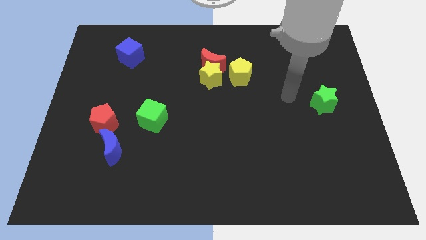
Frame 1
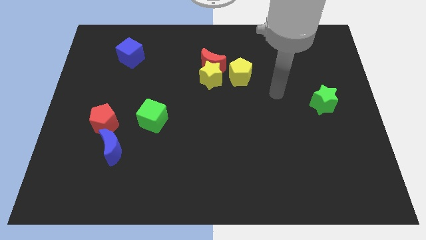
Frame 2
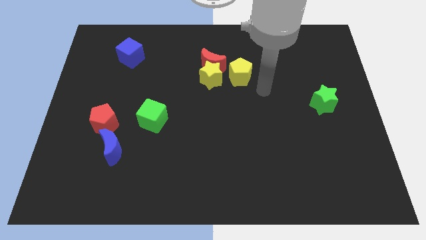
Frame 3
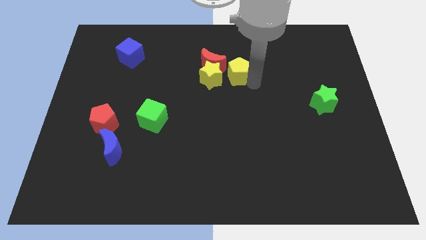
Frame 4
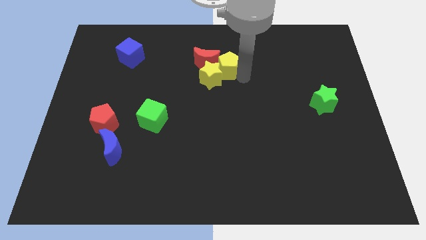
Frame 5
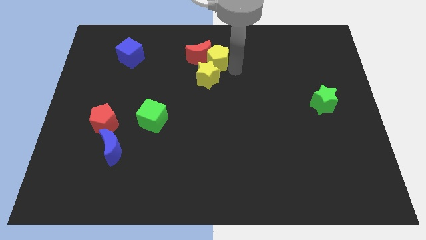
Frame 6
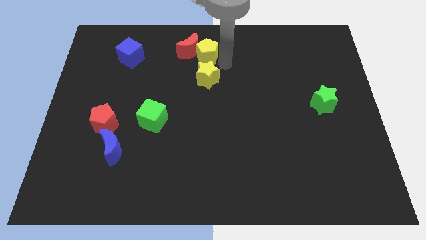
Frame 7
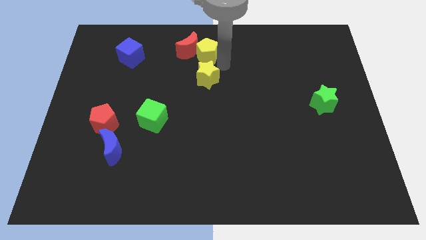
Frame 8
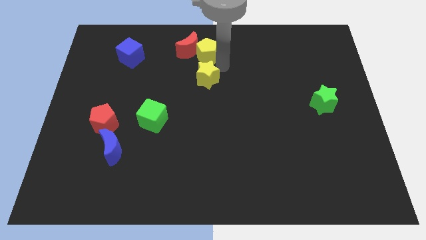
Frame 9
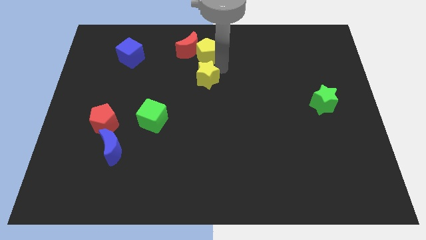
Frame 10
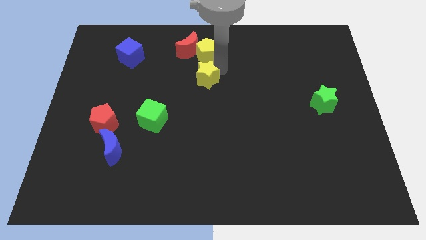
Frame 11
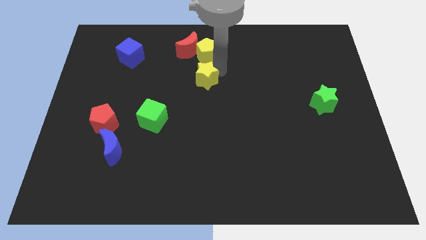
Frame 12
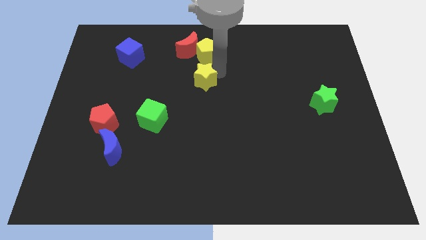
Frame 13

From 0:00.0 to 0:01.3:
separate the yellow star from the red moon and yellow pentagon

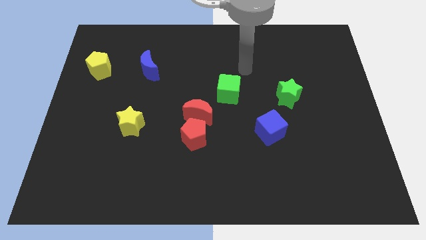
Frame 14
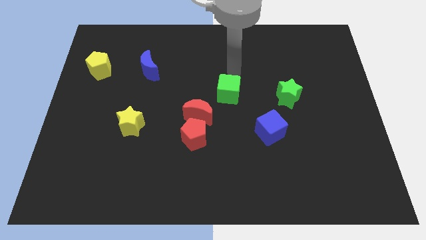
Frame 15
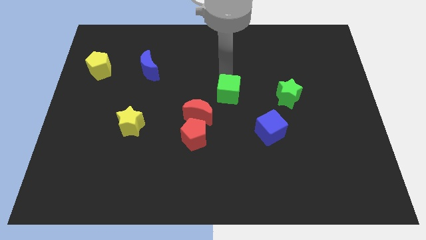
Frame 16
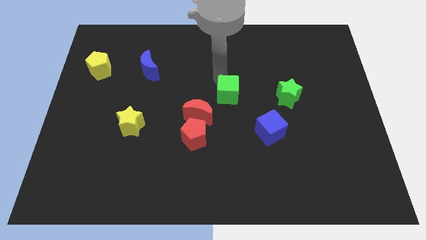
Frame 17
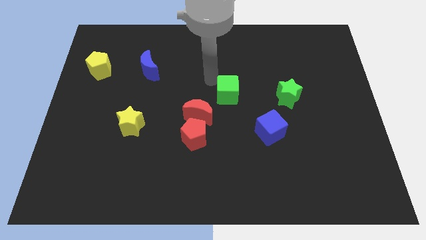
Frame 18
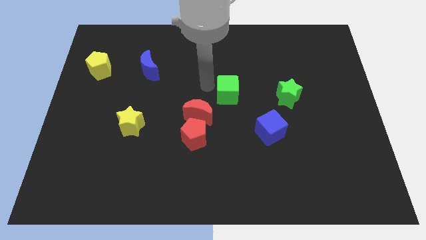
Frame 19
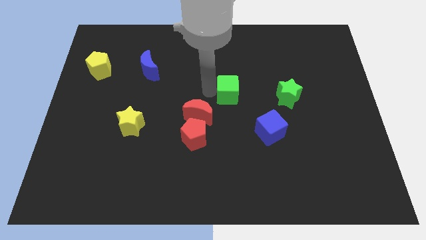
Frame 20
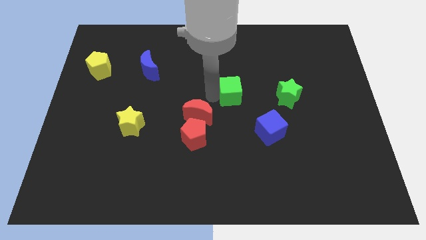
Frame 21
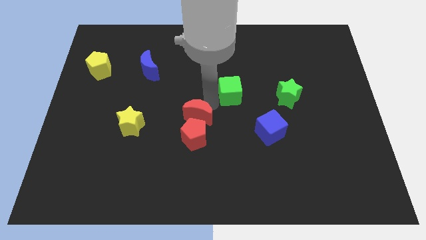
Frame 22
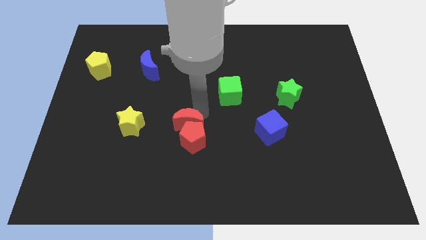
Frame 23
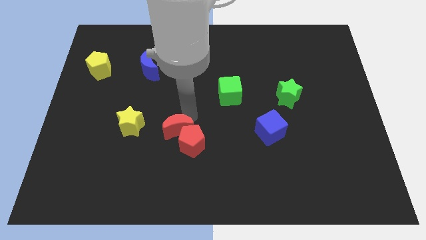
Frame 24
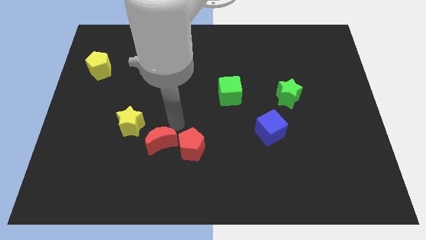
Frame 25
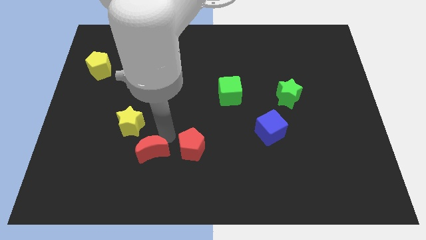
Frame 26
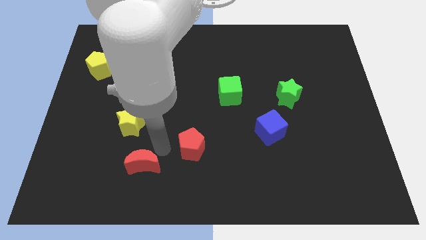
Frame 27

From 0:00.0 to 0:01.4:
pull the red pentagon apart from the red moon

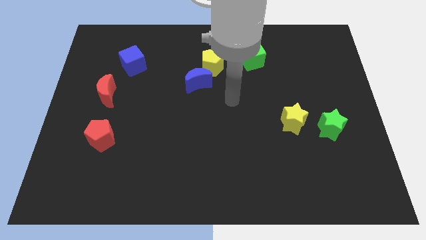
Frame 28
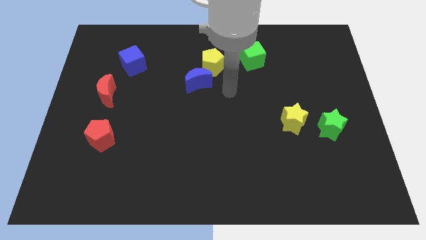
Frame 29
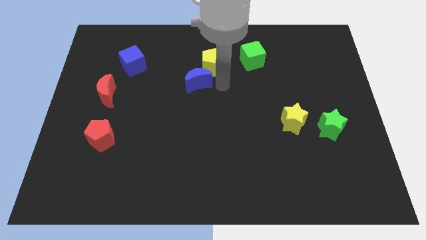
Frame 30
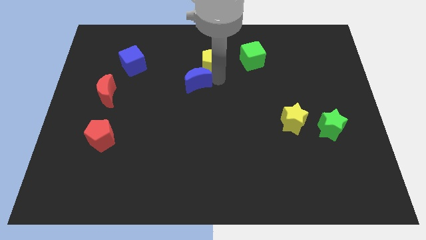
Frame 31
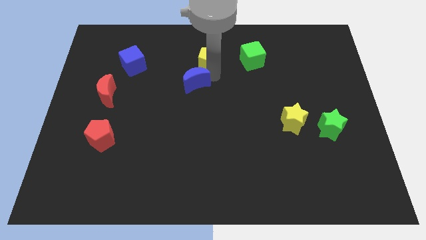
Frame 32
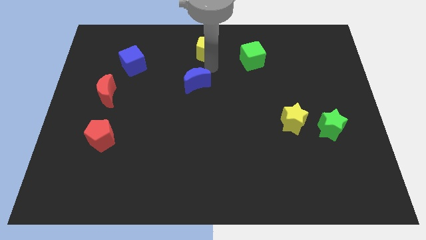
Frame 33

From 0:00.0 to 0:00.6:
move the blue moon away from the yellow pentagon

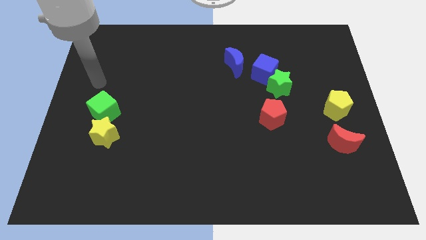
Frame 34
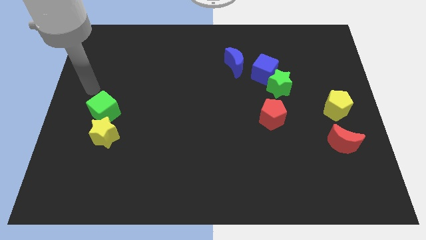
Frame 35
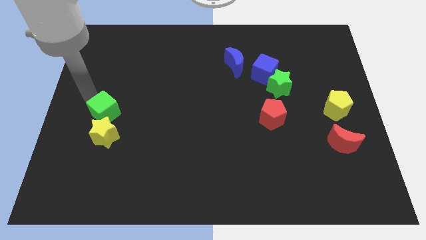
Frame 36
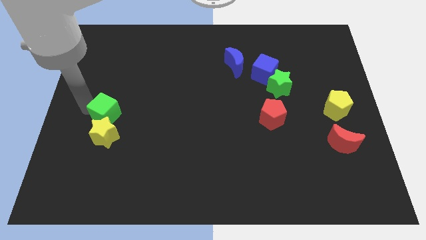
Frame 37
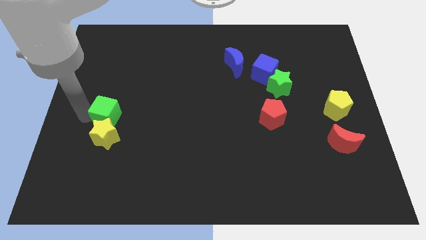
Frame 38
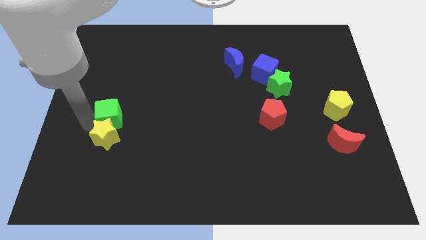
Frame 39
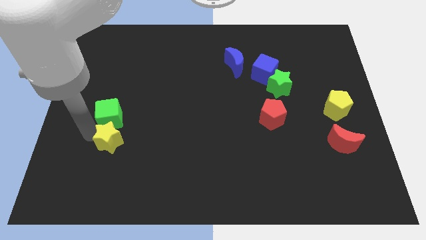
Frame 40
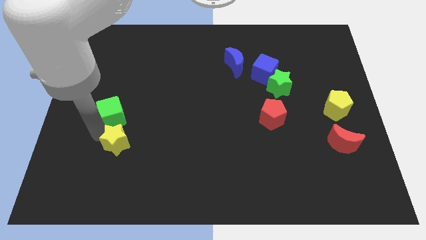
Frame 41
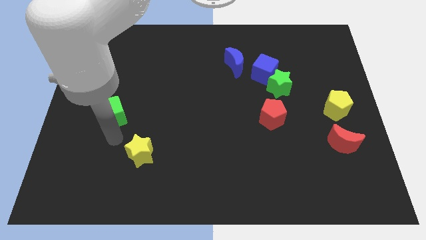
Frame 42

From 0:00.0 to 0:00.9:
move the green cube away from the yellow star

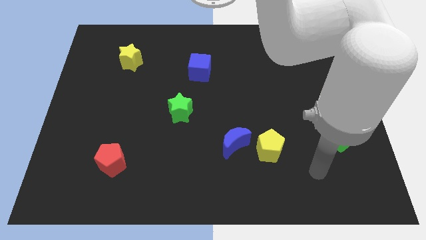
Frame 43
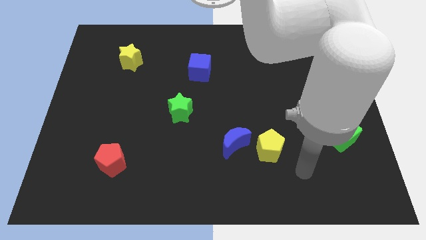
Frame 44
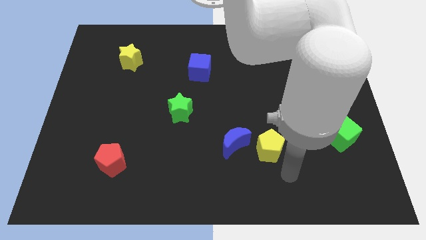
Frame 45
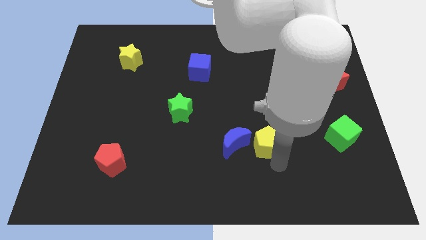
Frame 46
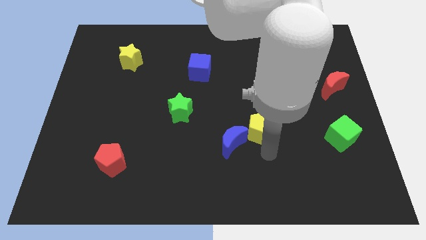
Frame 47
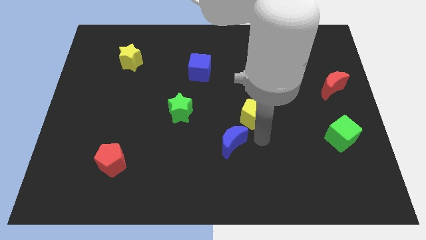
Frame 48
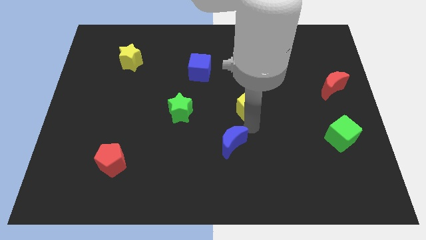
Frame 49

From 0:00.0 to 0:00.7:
separate the blue moon from the yellow pentagon

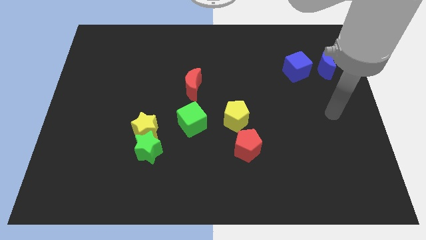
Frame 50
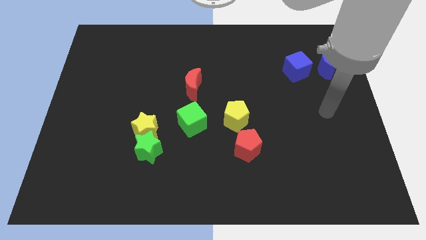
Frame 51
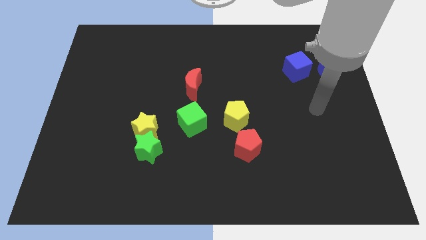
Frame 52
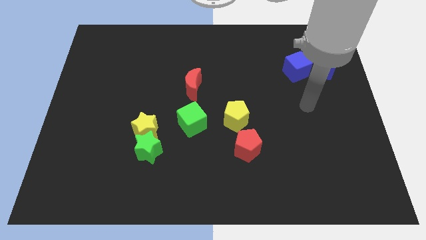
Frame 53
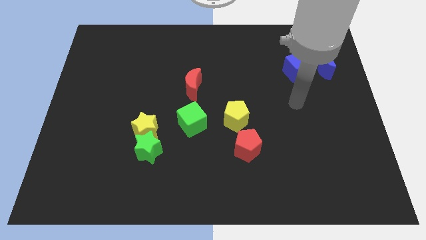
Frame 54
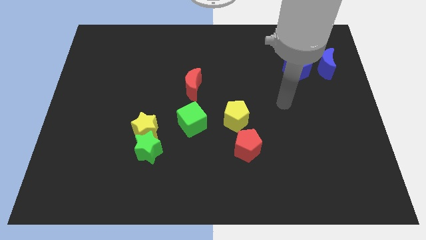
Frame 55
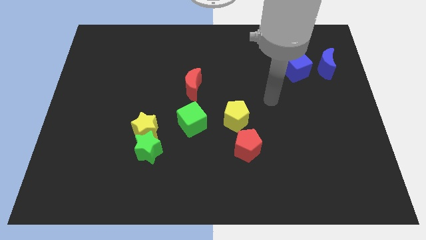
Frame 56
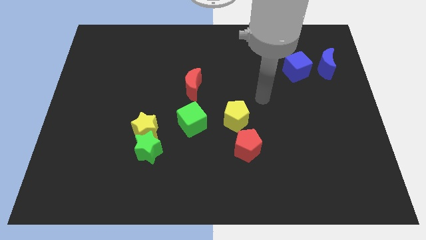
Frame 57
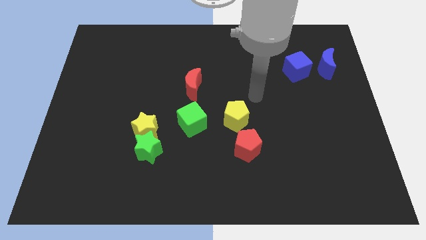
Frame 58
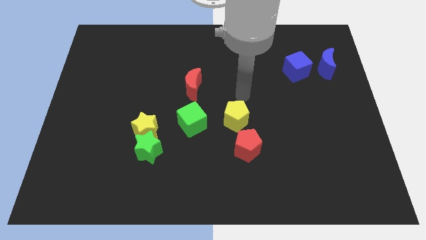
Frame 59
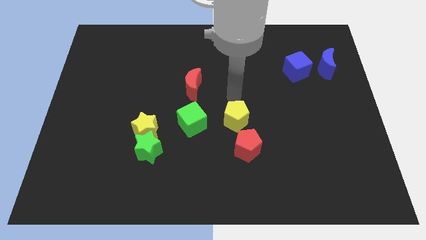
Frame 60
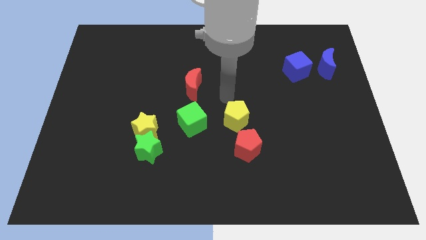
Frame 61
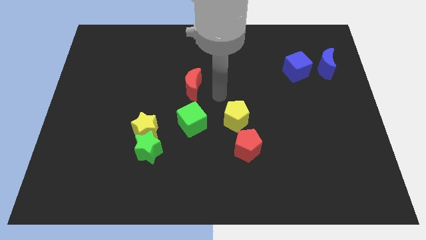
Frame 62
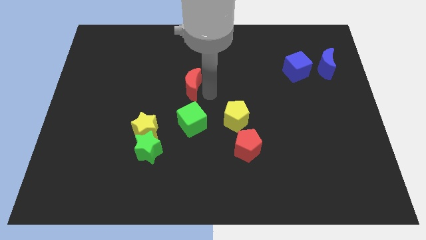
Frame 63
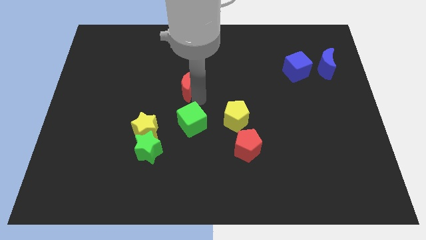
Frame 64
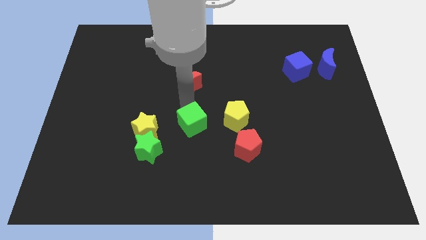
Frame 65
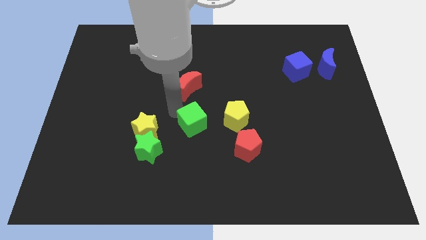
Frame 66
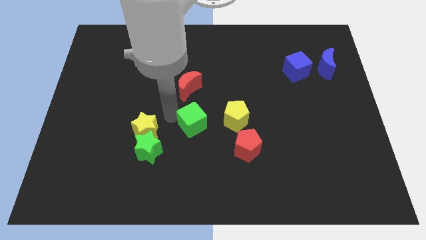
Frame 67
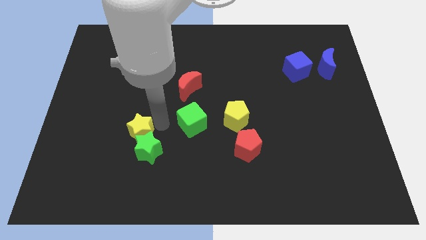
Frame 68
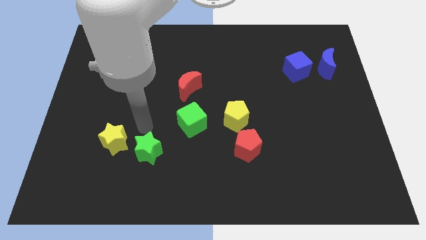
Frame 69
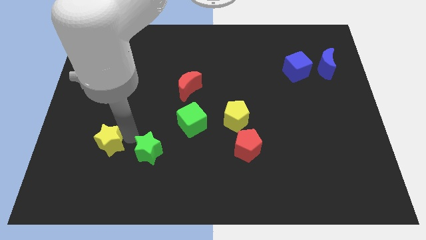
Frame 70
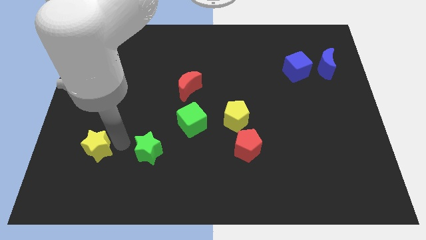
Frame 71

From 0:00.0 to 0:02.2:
move the green star away from the yellow star

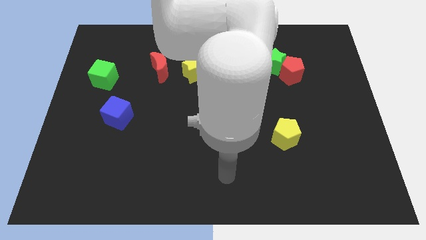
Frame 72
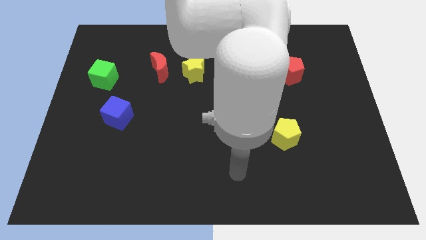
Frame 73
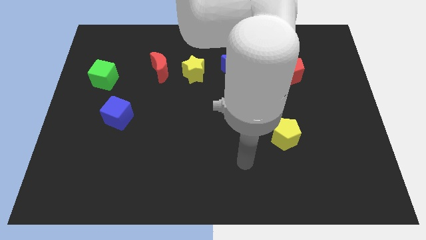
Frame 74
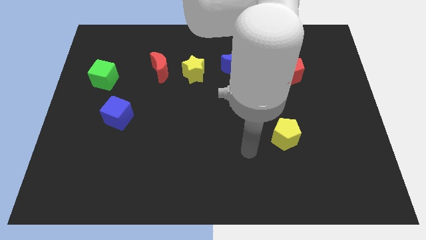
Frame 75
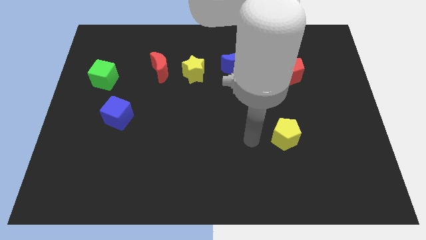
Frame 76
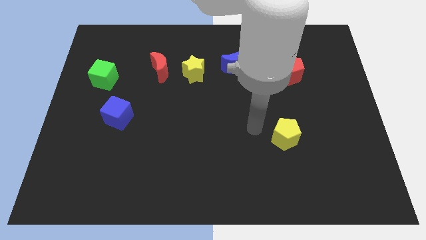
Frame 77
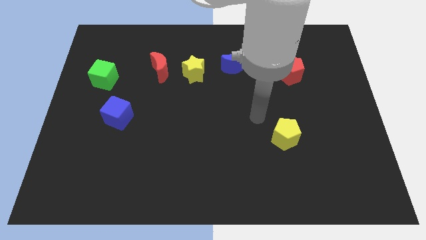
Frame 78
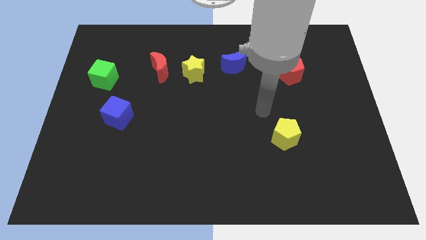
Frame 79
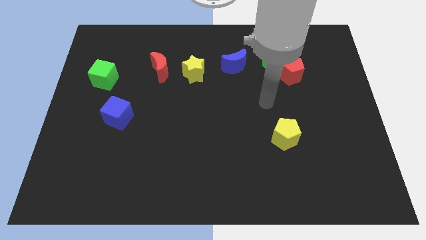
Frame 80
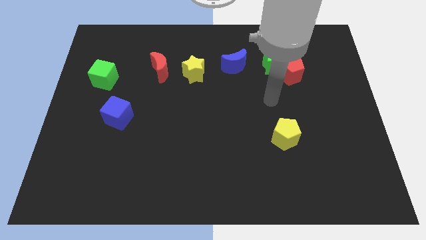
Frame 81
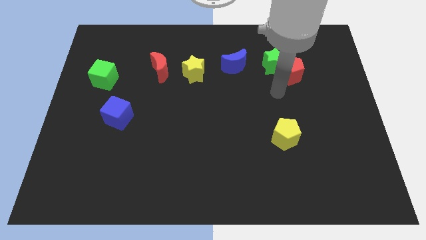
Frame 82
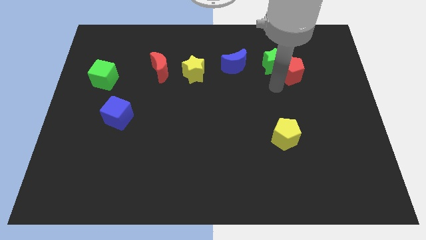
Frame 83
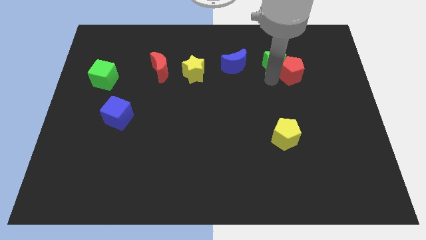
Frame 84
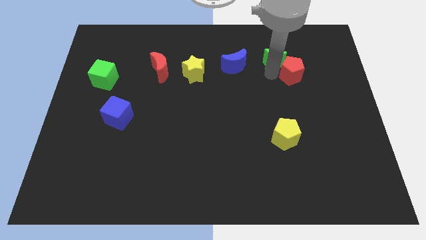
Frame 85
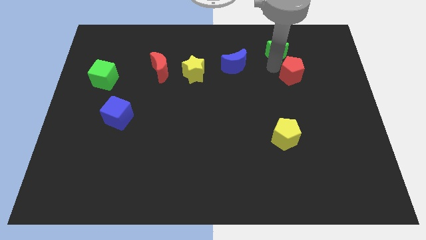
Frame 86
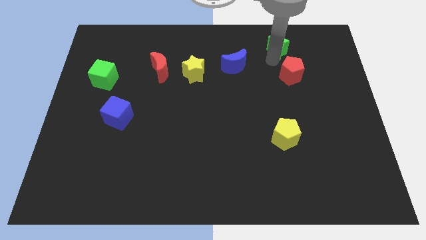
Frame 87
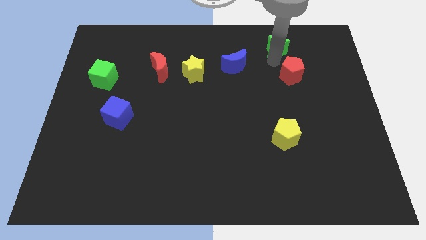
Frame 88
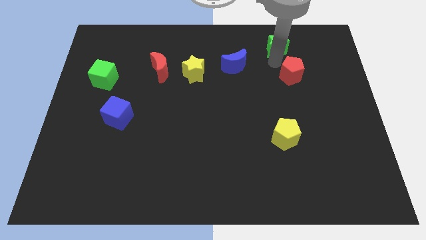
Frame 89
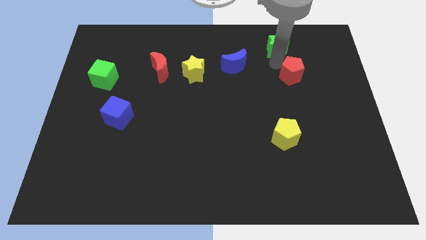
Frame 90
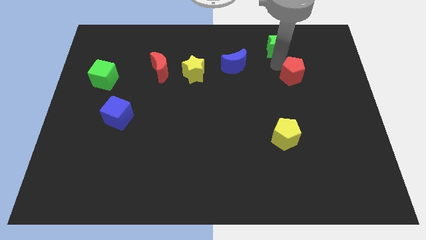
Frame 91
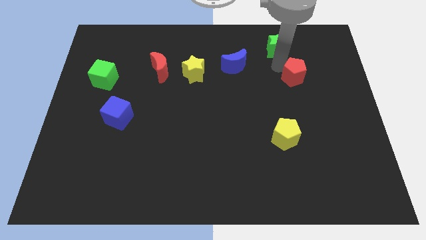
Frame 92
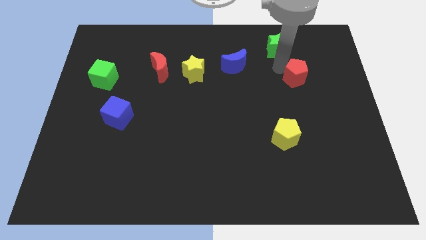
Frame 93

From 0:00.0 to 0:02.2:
pull the red pentagon apart from the green star

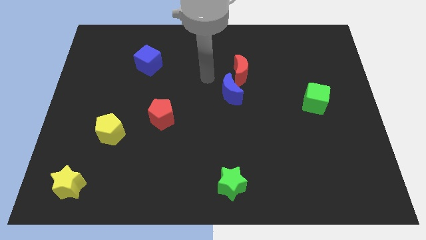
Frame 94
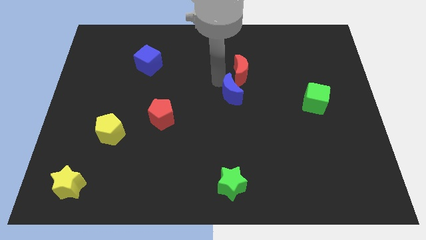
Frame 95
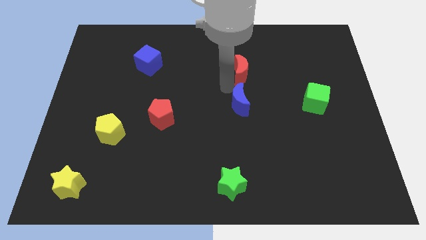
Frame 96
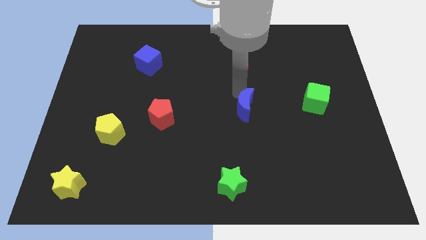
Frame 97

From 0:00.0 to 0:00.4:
separate the red moon from the blue moon
